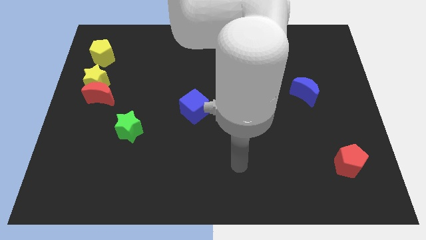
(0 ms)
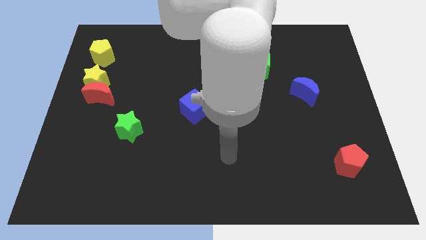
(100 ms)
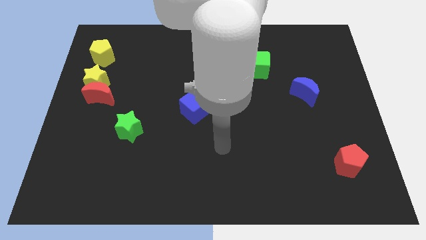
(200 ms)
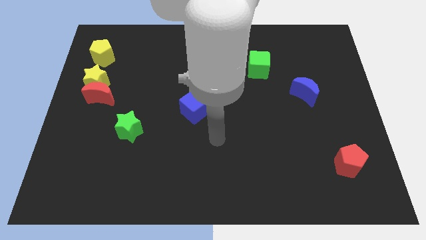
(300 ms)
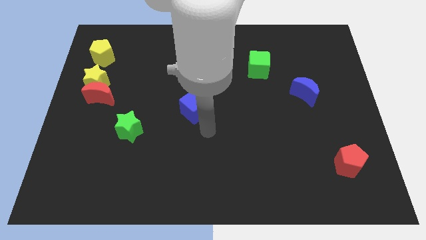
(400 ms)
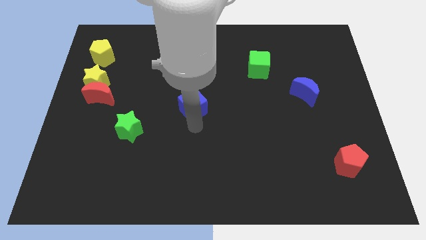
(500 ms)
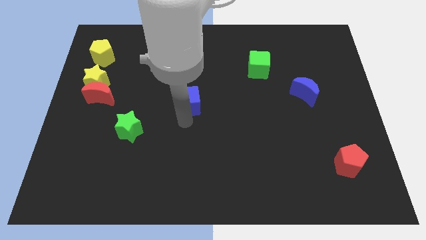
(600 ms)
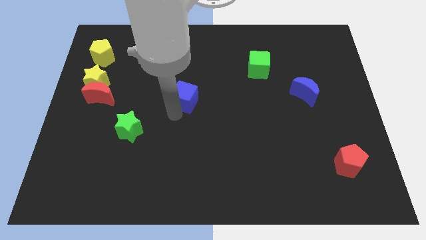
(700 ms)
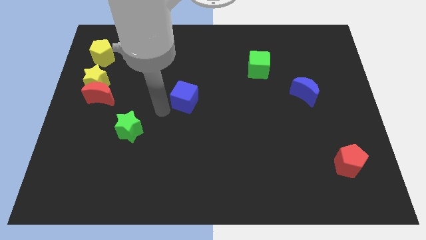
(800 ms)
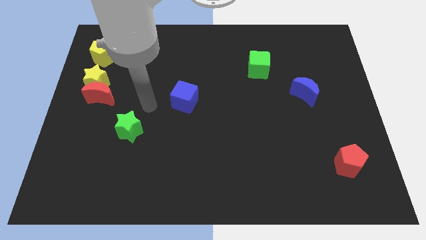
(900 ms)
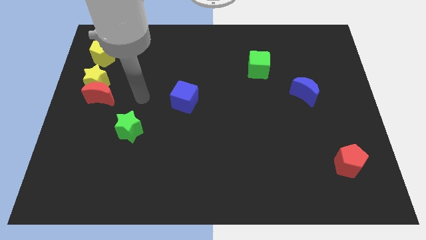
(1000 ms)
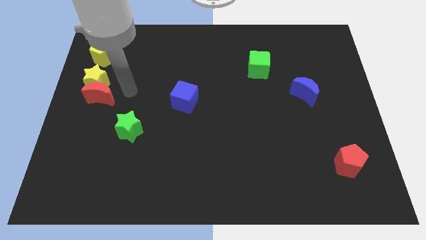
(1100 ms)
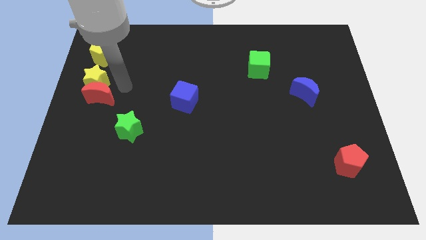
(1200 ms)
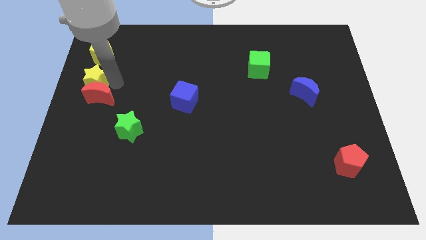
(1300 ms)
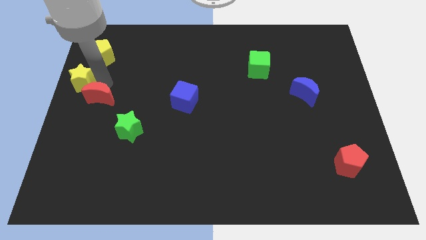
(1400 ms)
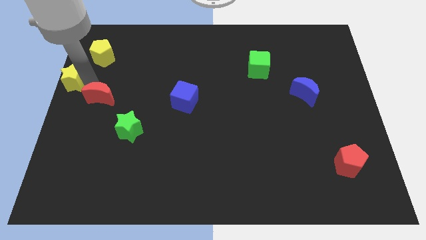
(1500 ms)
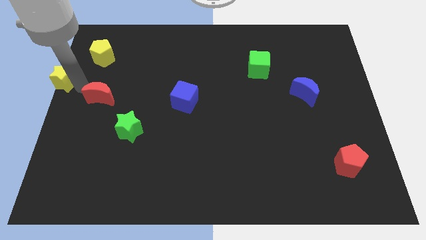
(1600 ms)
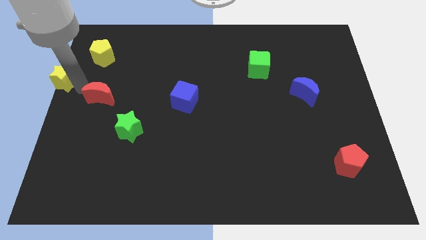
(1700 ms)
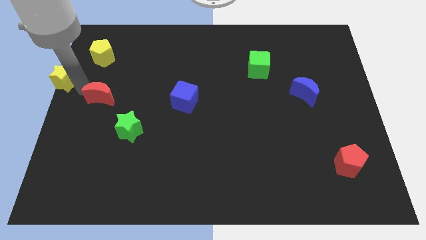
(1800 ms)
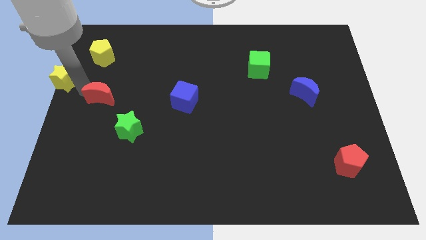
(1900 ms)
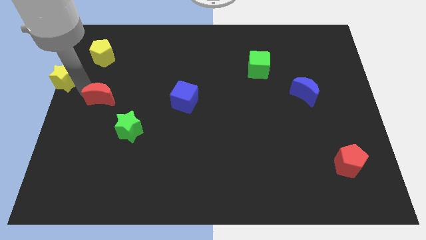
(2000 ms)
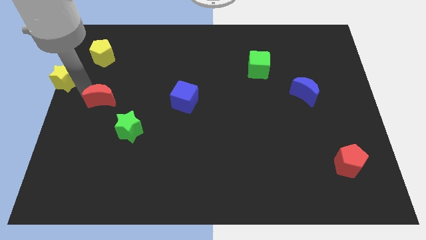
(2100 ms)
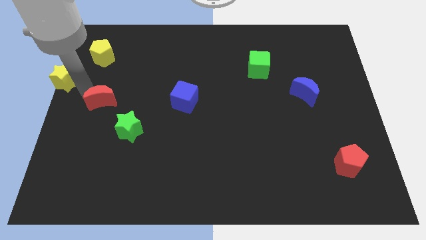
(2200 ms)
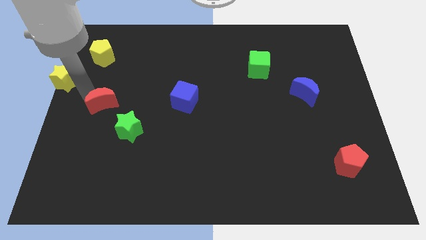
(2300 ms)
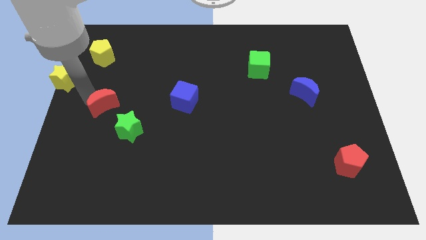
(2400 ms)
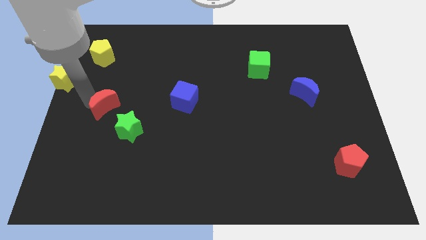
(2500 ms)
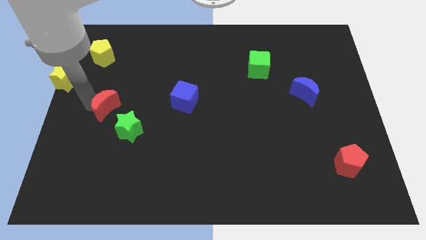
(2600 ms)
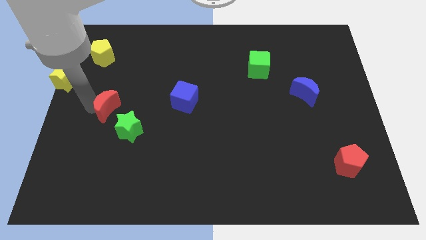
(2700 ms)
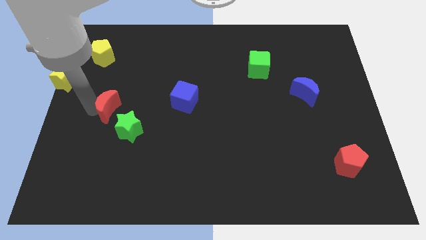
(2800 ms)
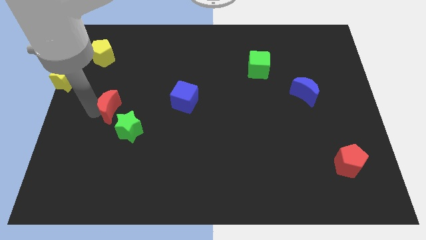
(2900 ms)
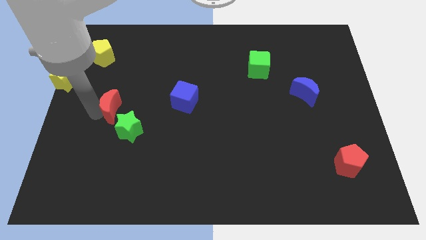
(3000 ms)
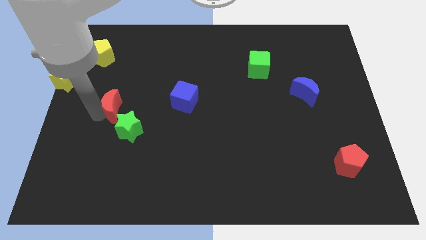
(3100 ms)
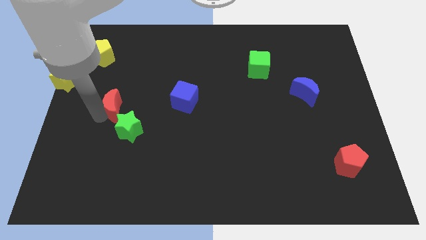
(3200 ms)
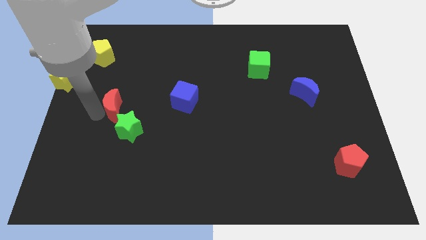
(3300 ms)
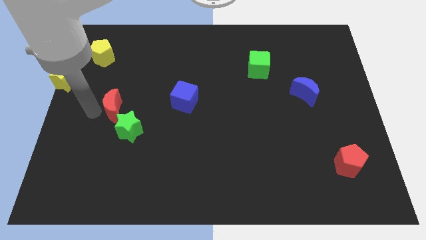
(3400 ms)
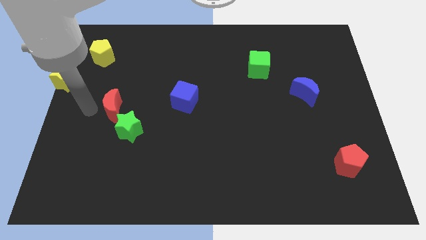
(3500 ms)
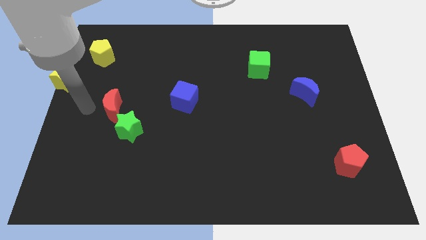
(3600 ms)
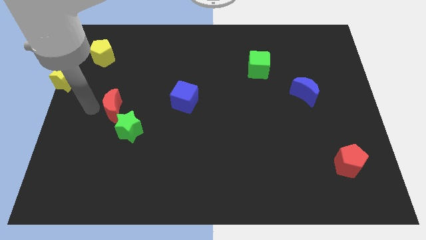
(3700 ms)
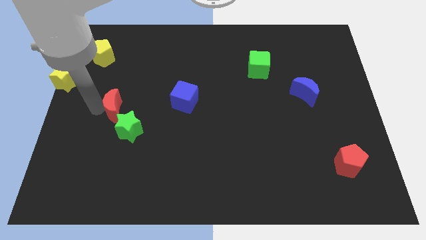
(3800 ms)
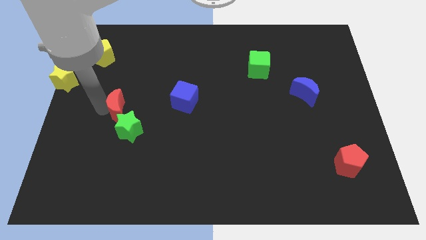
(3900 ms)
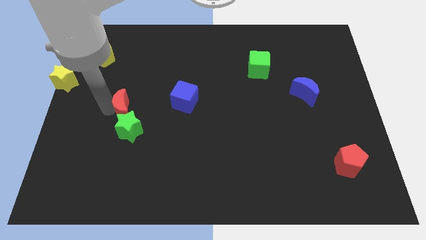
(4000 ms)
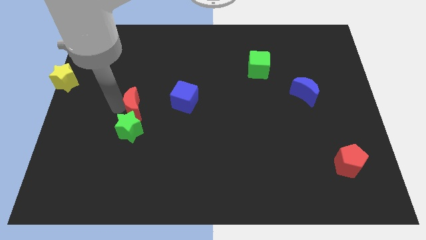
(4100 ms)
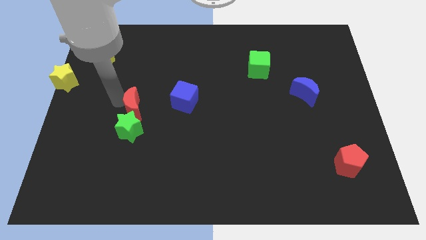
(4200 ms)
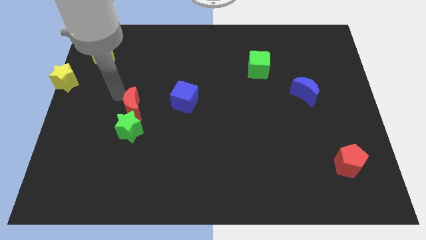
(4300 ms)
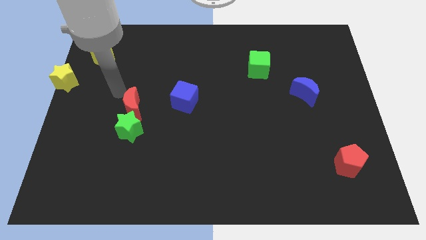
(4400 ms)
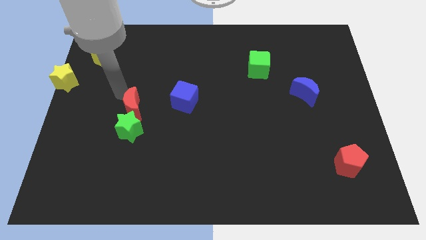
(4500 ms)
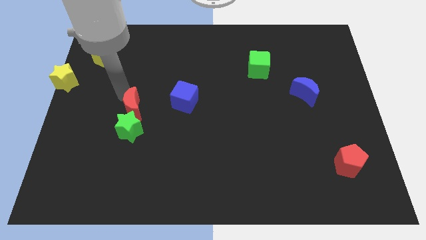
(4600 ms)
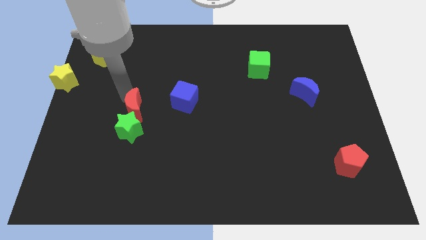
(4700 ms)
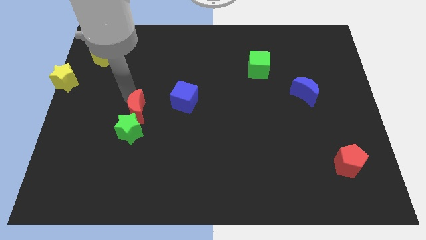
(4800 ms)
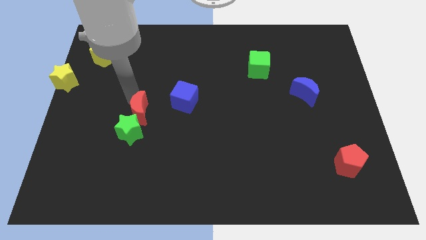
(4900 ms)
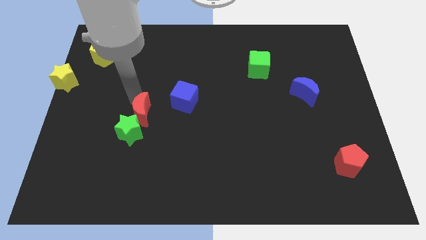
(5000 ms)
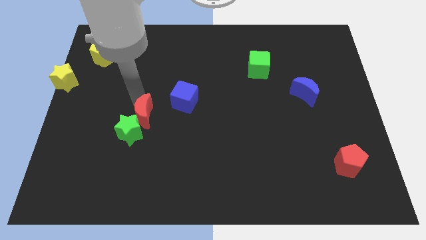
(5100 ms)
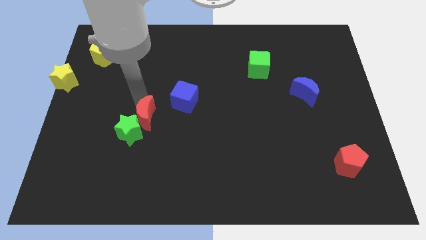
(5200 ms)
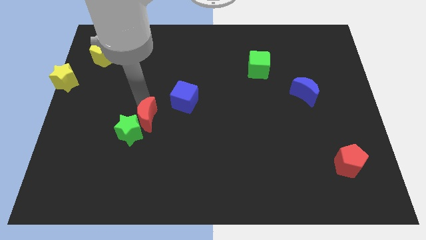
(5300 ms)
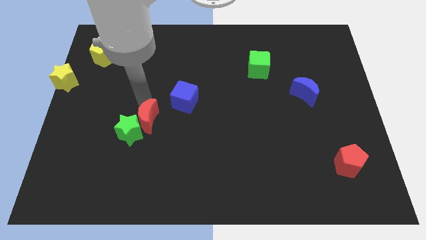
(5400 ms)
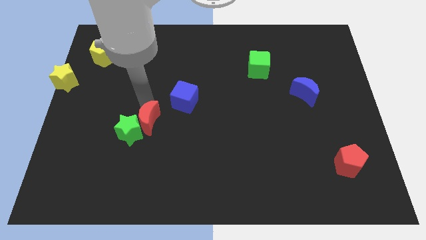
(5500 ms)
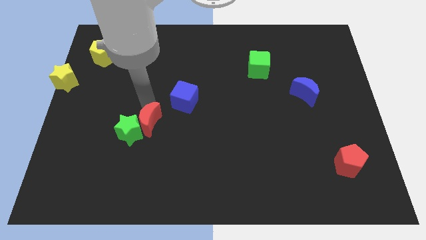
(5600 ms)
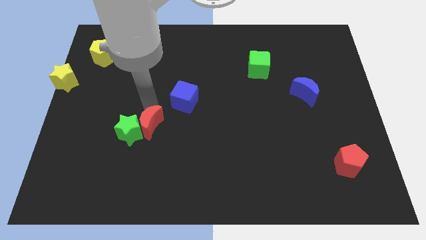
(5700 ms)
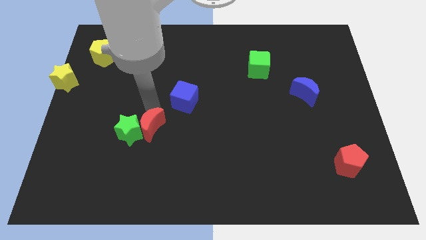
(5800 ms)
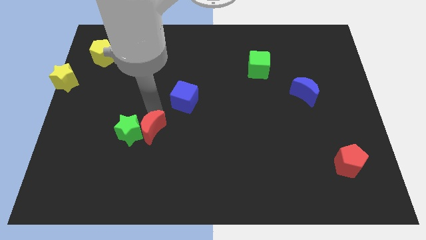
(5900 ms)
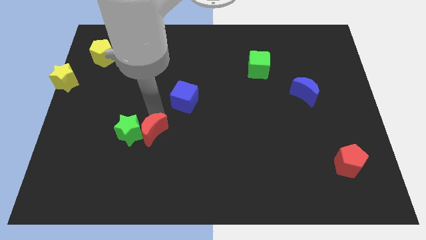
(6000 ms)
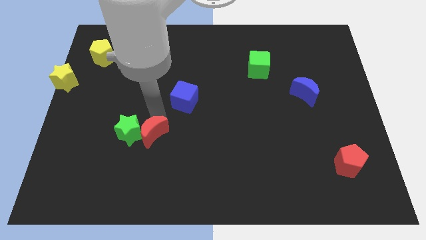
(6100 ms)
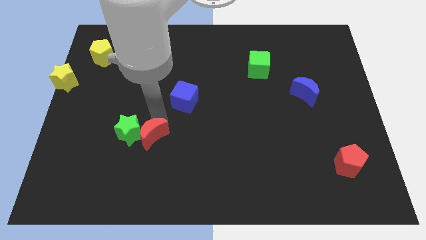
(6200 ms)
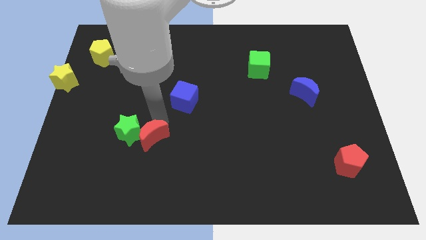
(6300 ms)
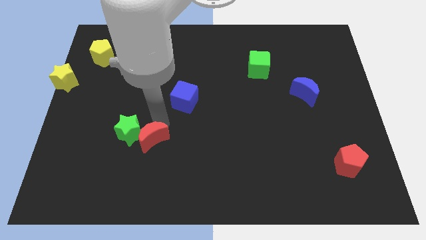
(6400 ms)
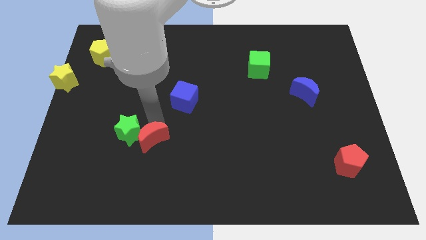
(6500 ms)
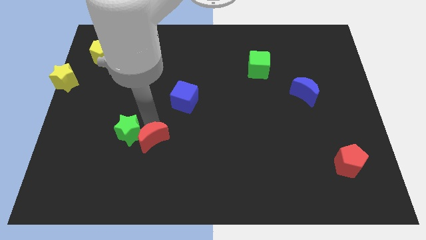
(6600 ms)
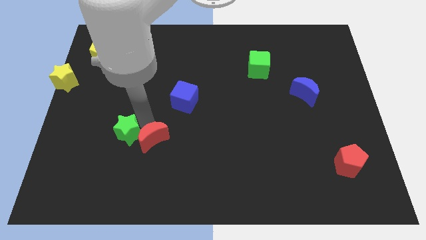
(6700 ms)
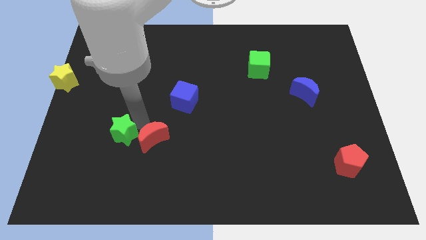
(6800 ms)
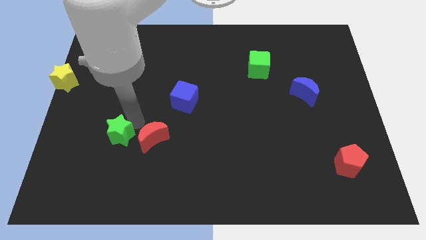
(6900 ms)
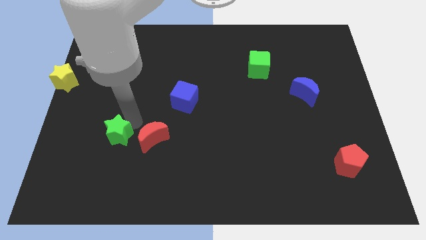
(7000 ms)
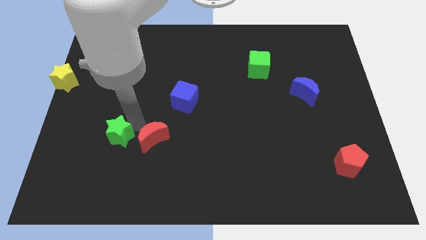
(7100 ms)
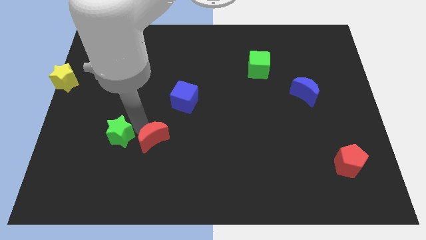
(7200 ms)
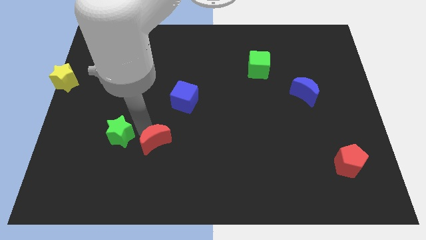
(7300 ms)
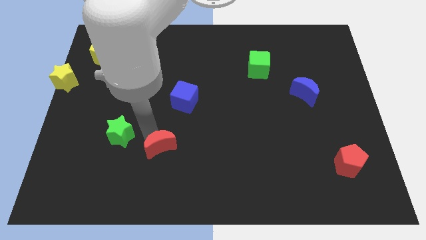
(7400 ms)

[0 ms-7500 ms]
move the red moon down and then to the right

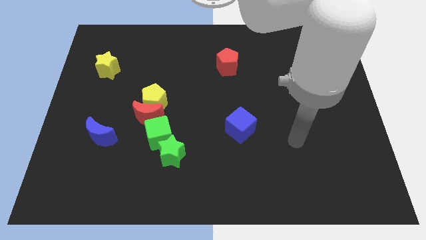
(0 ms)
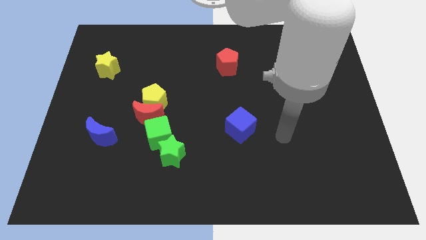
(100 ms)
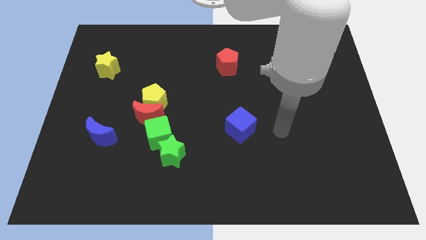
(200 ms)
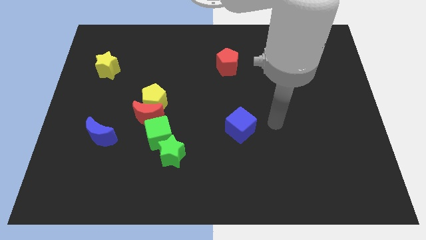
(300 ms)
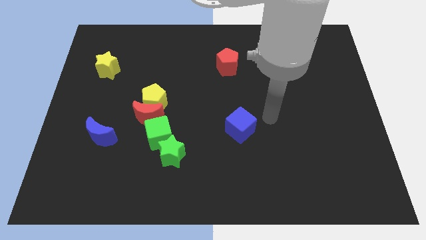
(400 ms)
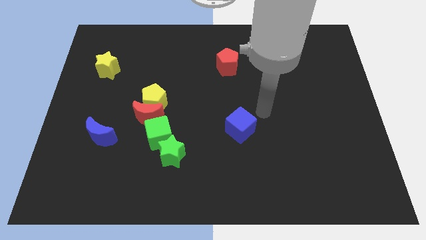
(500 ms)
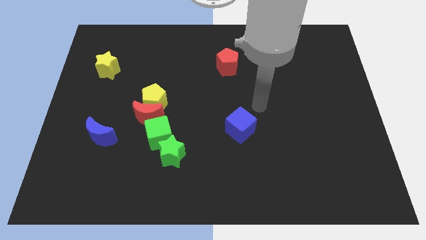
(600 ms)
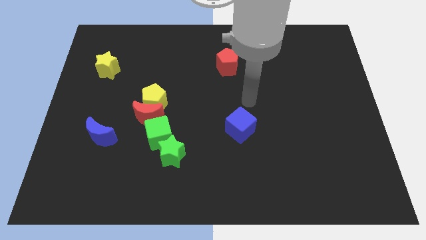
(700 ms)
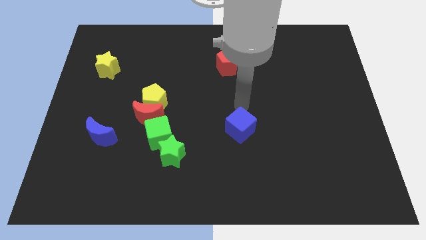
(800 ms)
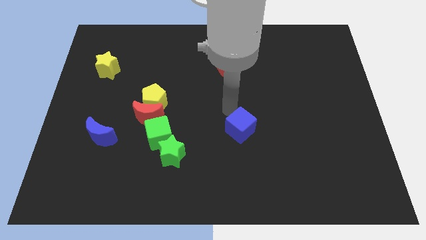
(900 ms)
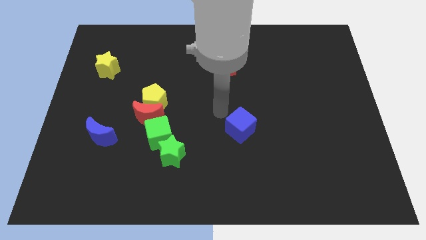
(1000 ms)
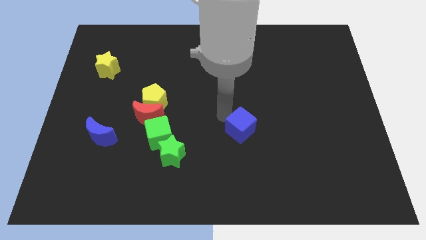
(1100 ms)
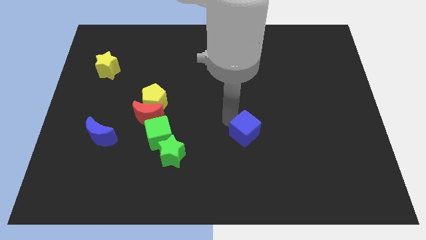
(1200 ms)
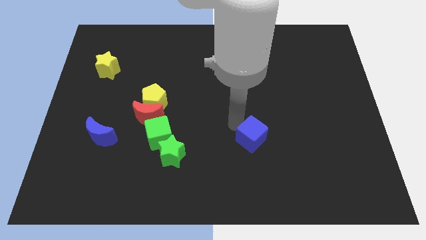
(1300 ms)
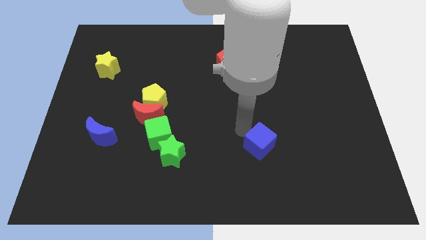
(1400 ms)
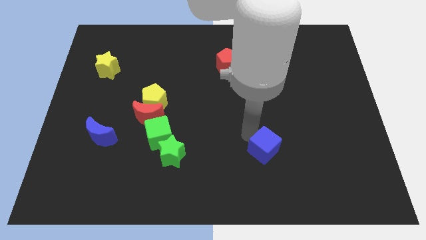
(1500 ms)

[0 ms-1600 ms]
slightly move the blue cube diagonally downwards and right
